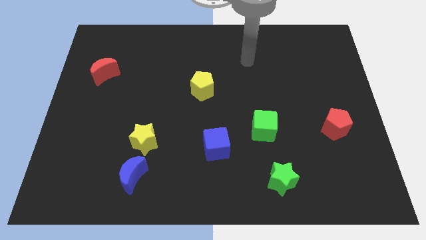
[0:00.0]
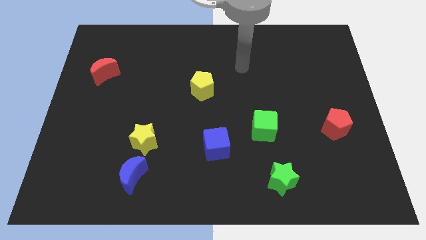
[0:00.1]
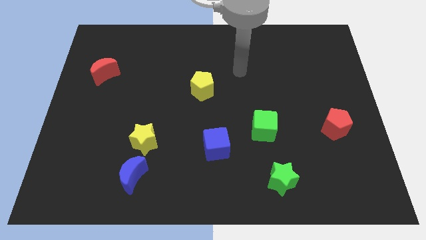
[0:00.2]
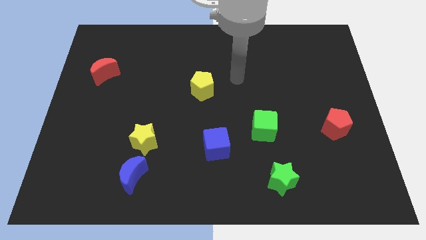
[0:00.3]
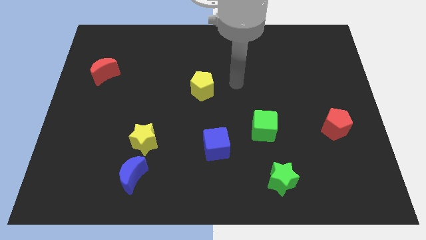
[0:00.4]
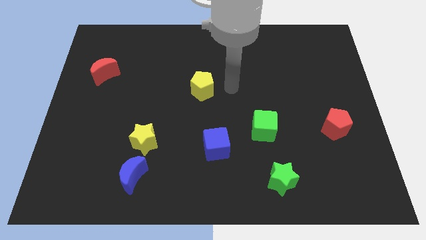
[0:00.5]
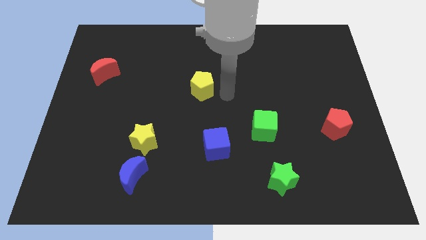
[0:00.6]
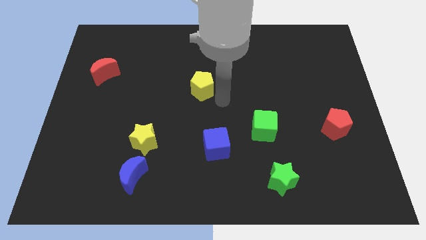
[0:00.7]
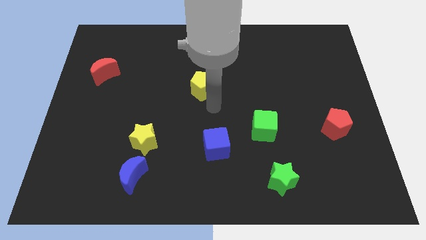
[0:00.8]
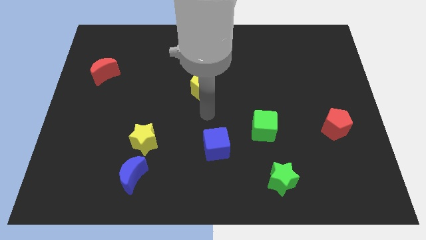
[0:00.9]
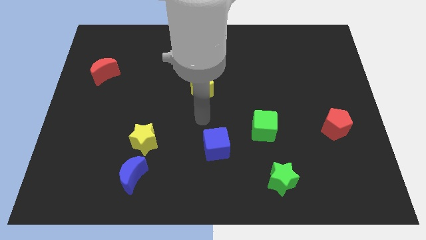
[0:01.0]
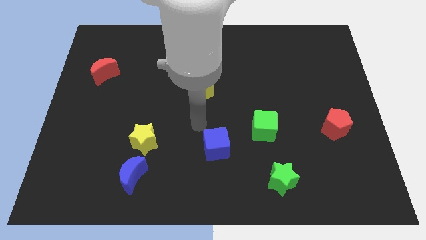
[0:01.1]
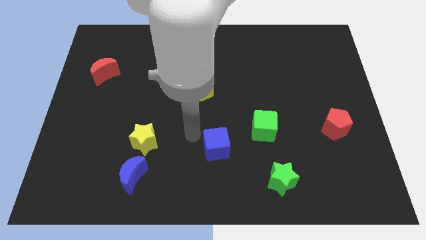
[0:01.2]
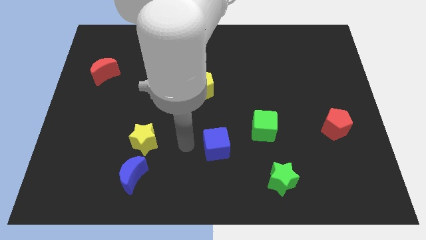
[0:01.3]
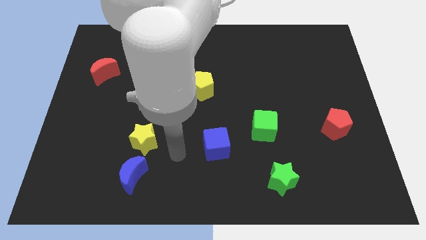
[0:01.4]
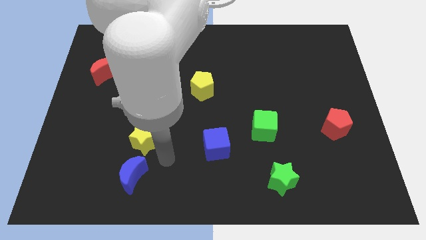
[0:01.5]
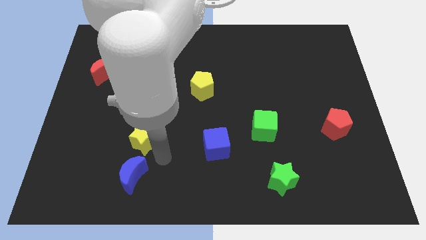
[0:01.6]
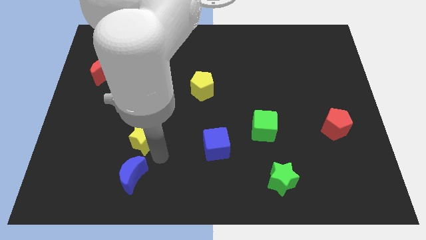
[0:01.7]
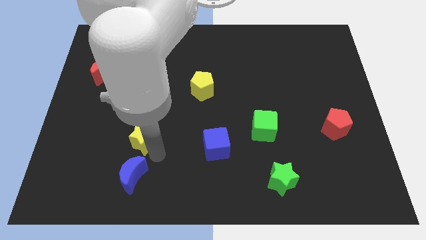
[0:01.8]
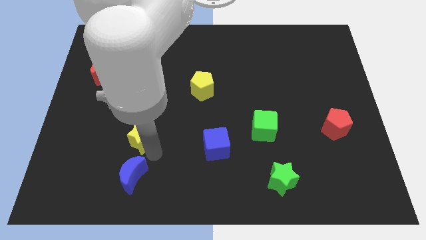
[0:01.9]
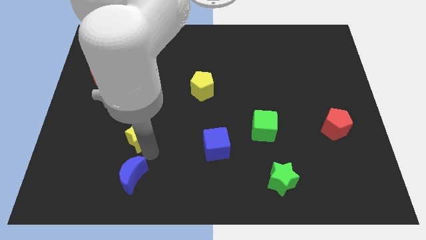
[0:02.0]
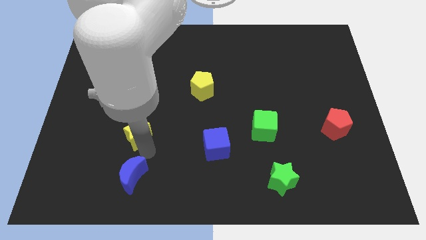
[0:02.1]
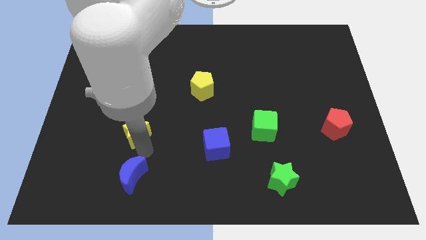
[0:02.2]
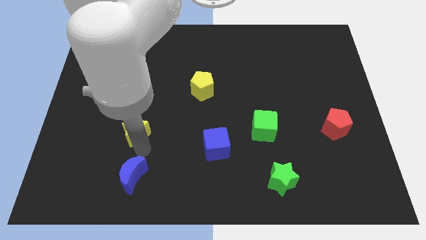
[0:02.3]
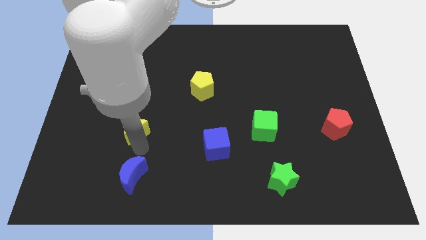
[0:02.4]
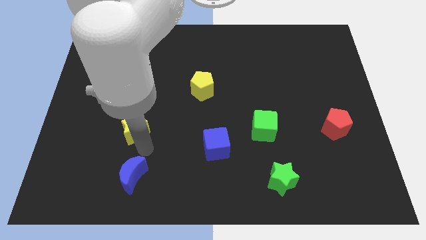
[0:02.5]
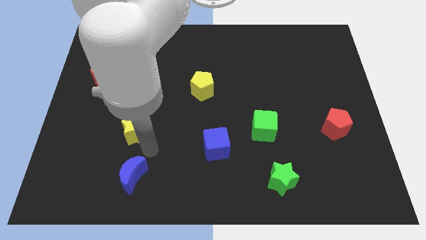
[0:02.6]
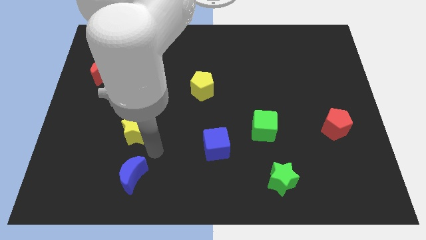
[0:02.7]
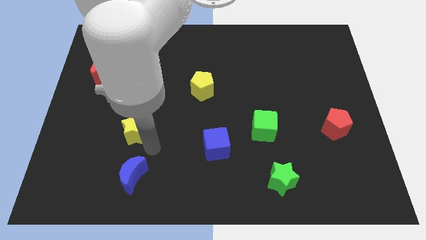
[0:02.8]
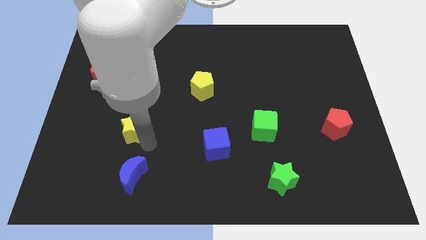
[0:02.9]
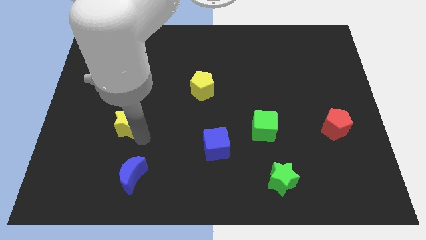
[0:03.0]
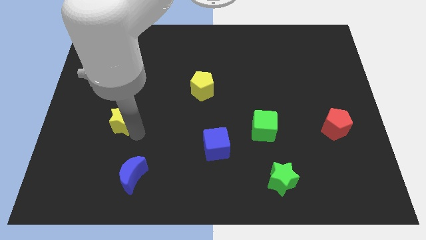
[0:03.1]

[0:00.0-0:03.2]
push the yellow star a little bit upwards and then left

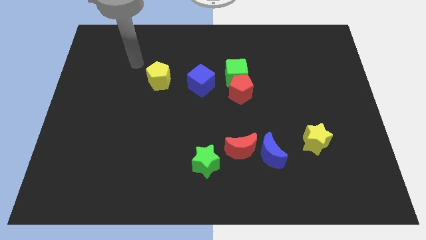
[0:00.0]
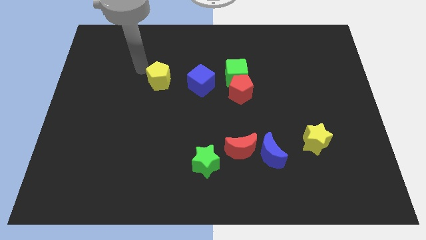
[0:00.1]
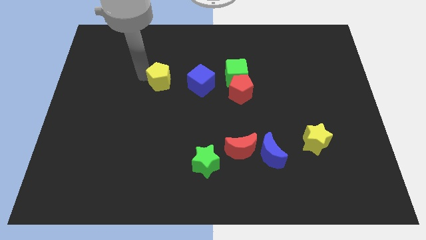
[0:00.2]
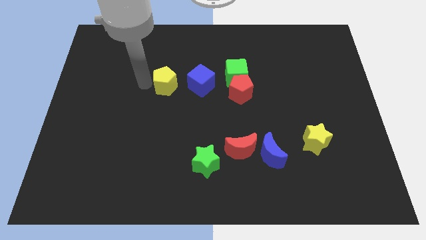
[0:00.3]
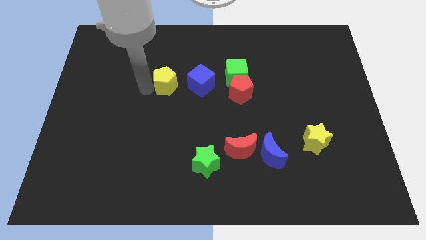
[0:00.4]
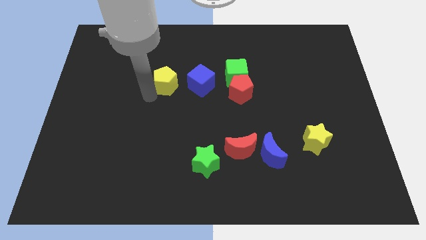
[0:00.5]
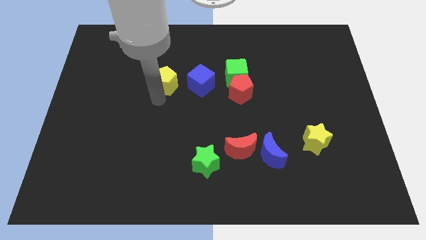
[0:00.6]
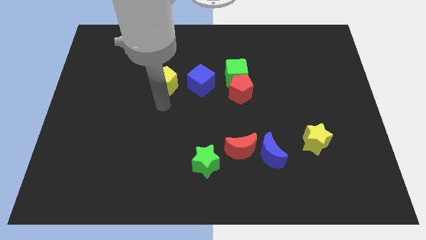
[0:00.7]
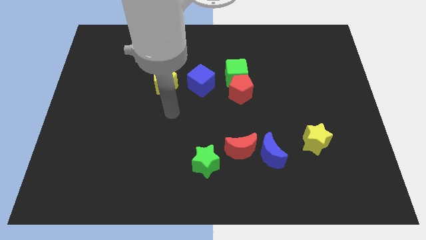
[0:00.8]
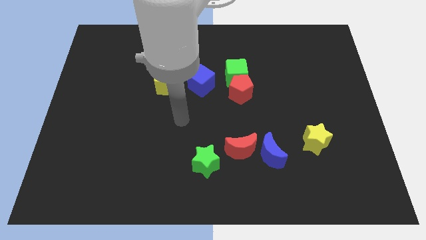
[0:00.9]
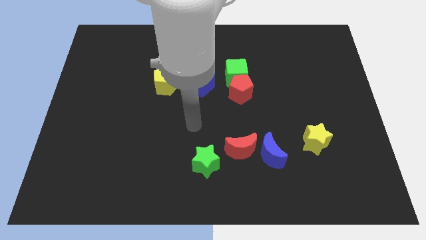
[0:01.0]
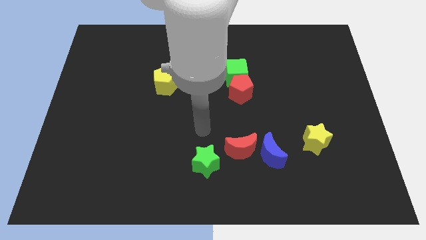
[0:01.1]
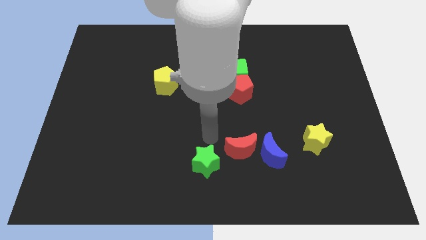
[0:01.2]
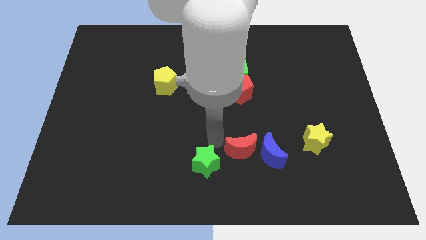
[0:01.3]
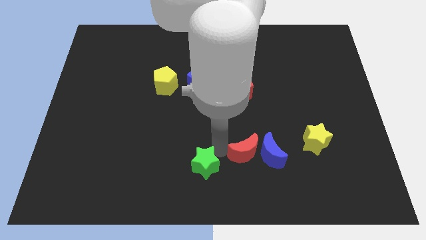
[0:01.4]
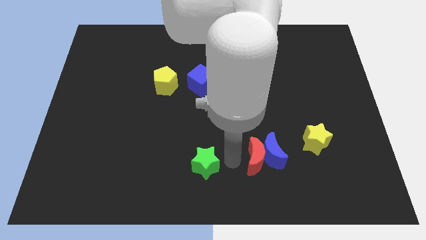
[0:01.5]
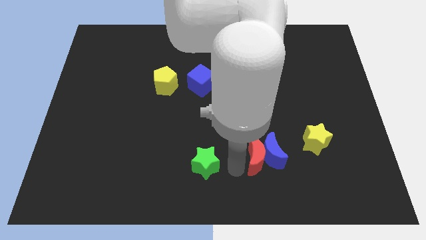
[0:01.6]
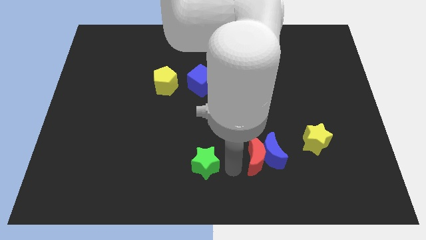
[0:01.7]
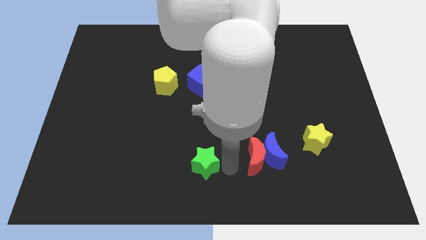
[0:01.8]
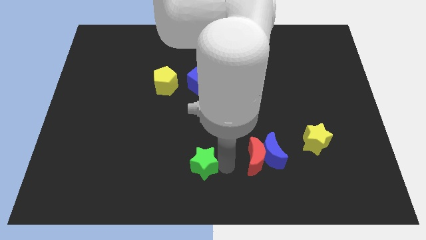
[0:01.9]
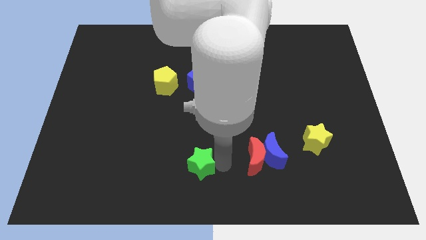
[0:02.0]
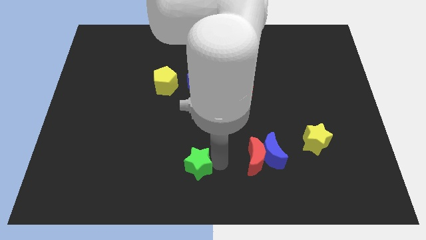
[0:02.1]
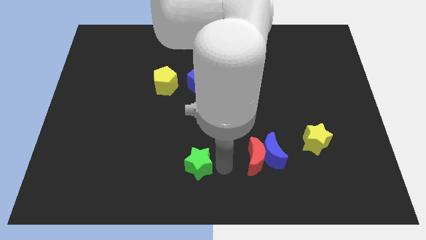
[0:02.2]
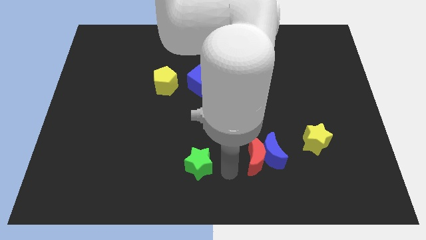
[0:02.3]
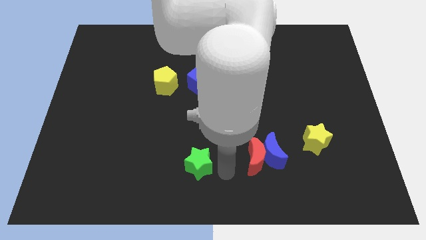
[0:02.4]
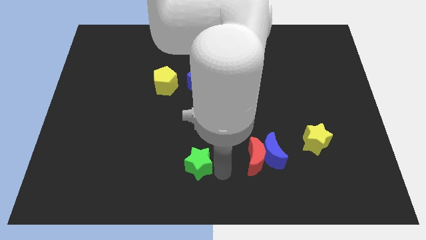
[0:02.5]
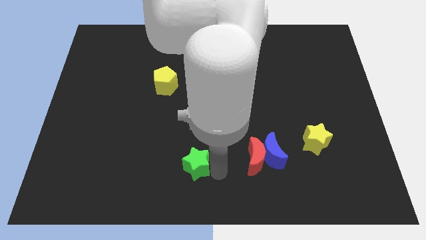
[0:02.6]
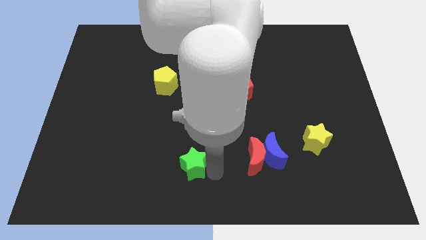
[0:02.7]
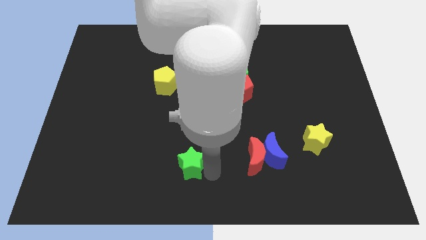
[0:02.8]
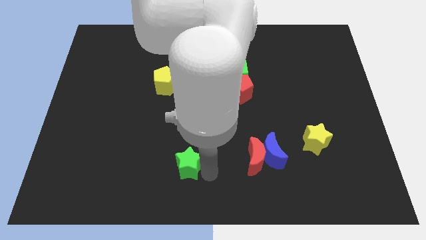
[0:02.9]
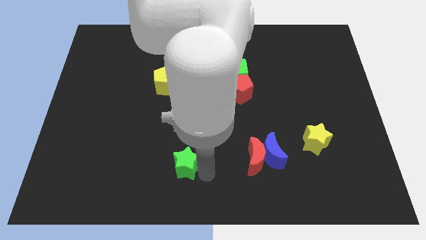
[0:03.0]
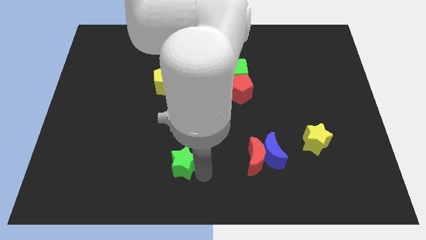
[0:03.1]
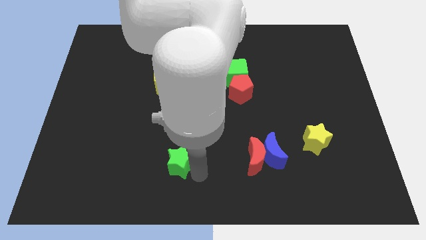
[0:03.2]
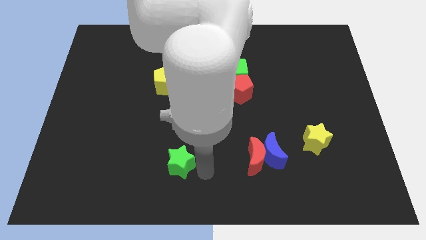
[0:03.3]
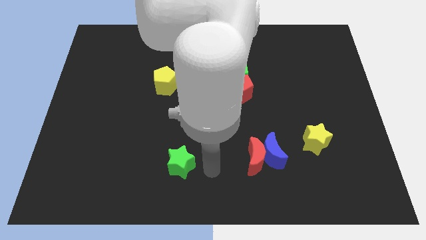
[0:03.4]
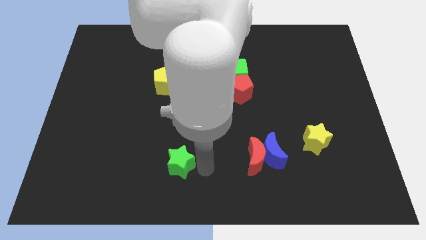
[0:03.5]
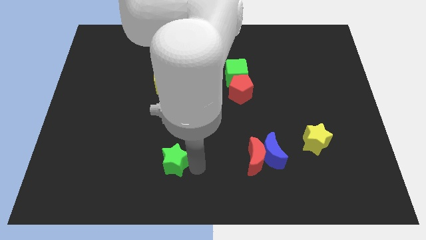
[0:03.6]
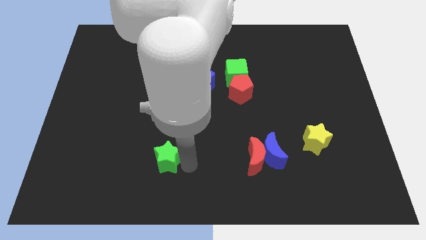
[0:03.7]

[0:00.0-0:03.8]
slightly push the green star left

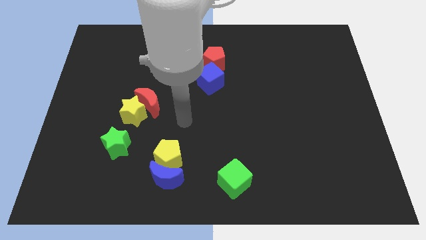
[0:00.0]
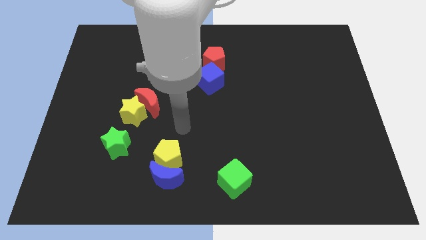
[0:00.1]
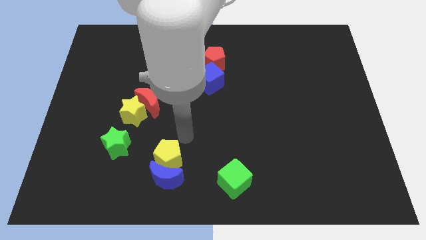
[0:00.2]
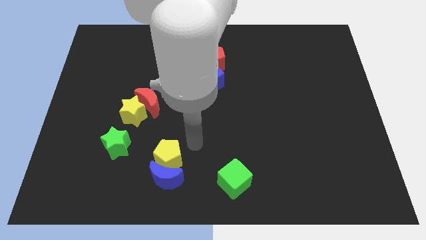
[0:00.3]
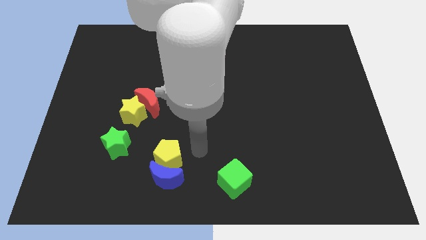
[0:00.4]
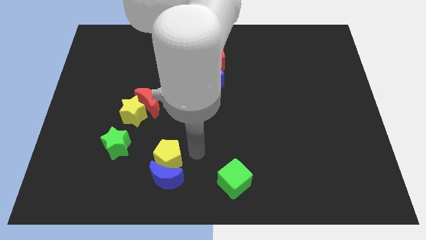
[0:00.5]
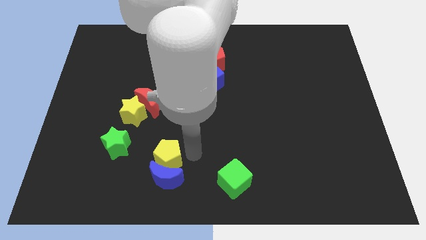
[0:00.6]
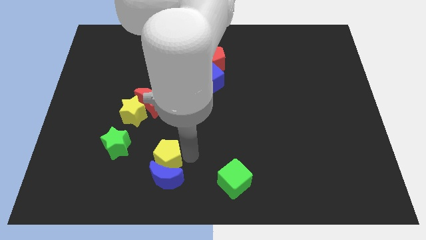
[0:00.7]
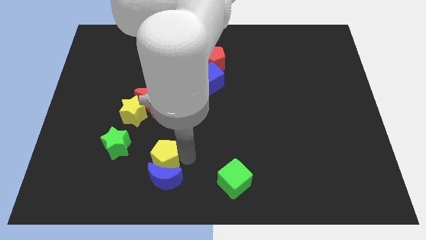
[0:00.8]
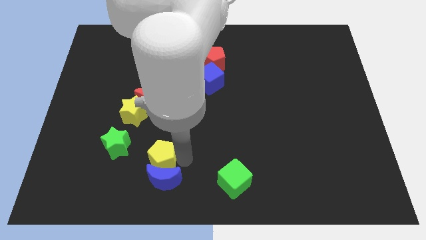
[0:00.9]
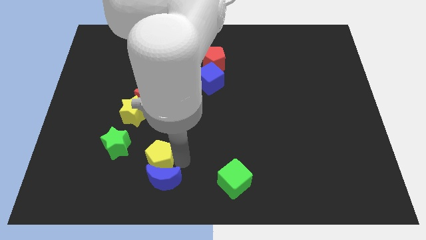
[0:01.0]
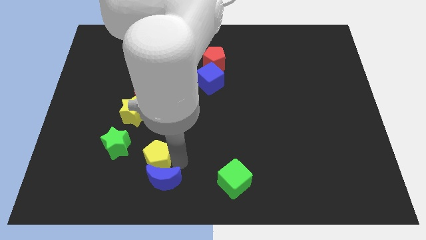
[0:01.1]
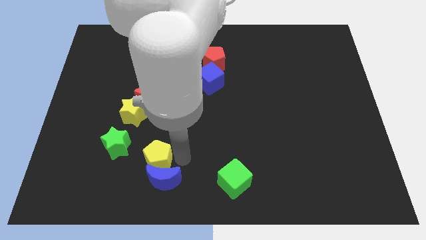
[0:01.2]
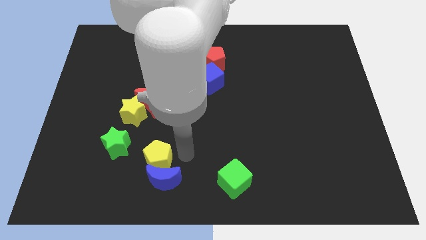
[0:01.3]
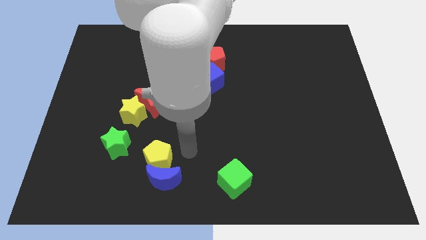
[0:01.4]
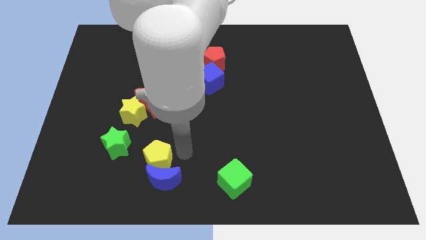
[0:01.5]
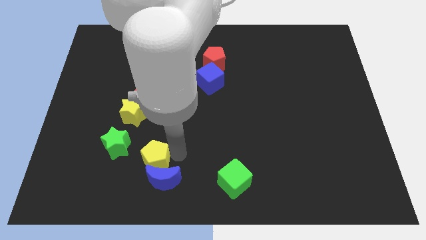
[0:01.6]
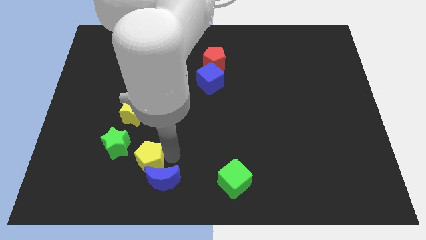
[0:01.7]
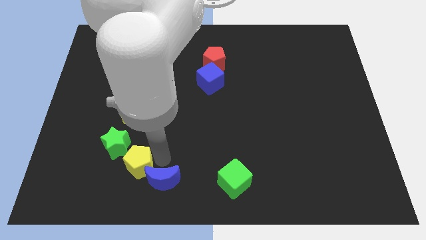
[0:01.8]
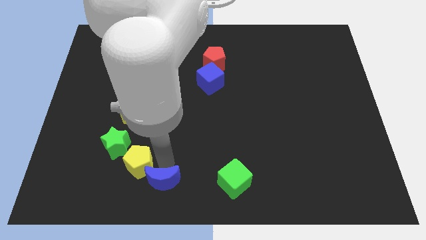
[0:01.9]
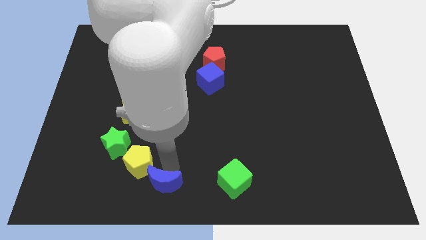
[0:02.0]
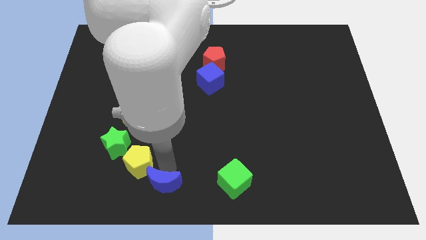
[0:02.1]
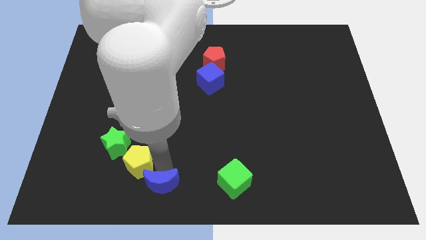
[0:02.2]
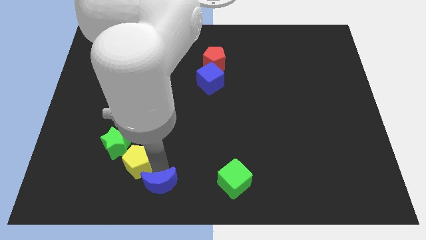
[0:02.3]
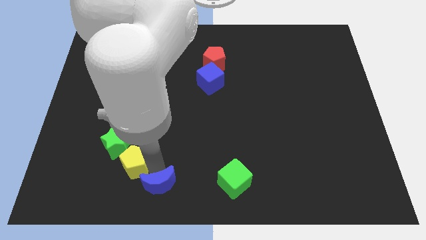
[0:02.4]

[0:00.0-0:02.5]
push the yellow pentagon to the left somewhat
